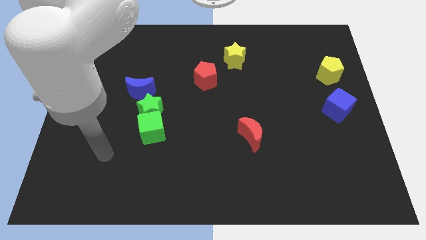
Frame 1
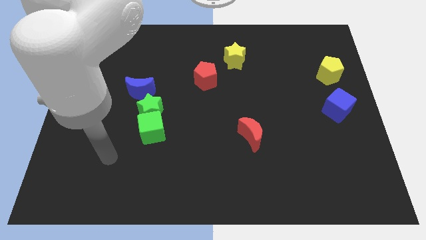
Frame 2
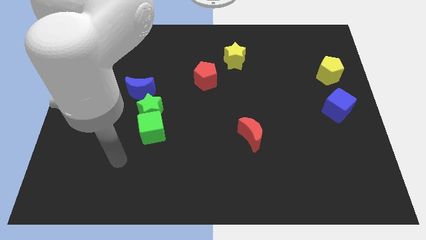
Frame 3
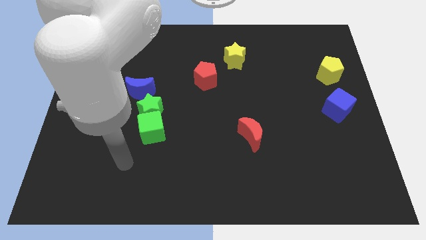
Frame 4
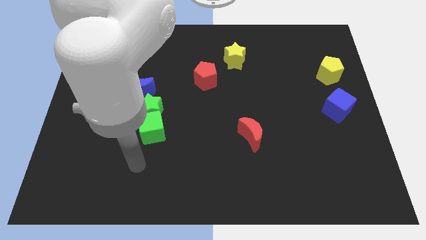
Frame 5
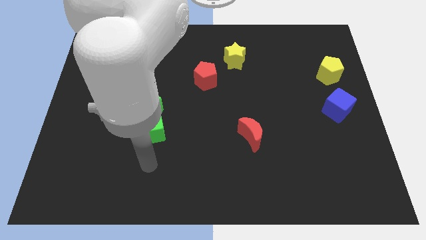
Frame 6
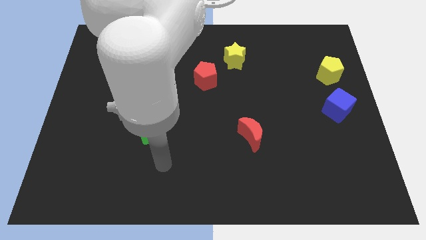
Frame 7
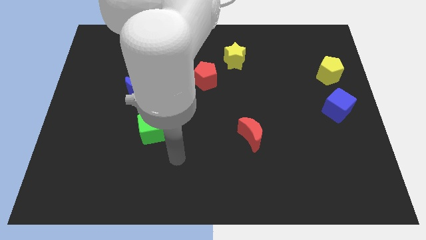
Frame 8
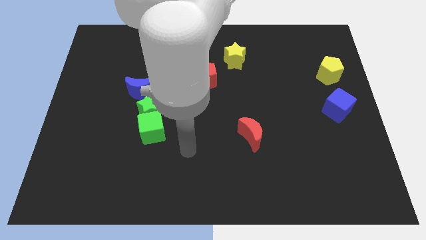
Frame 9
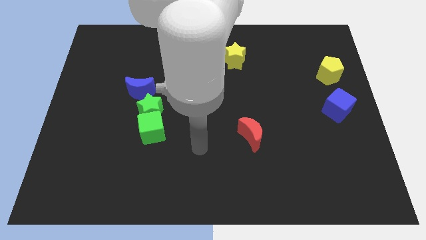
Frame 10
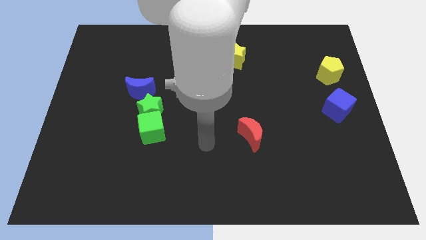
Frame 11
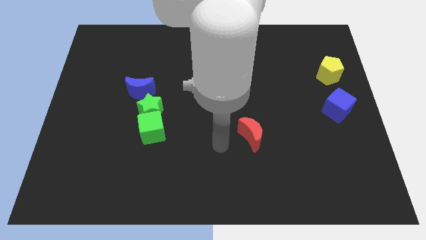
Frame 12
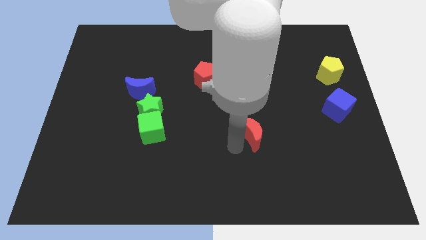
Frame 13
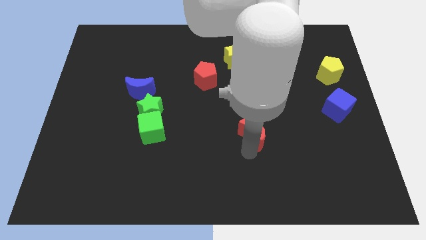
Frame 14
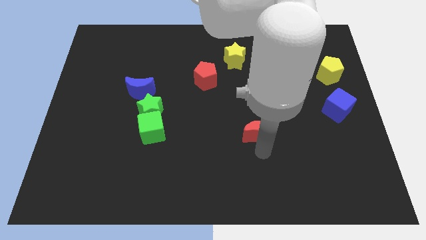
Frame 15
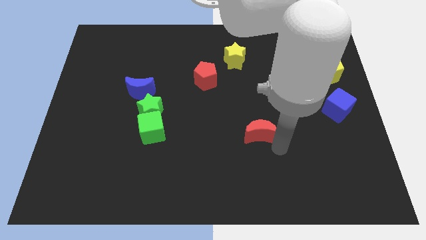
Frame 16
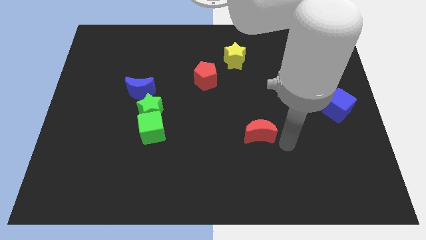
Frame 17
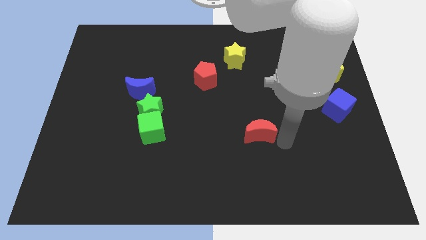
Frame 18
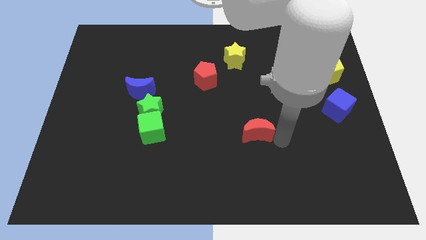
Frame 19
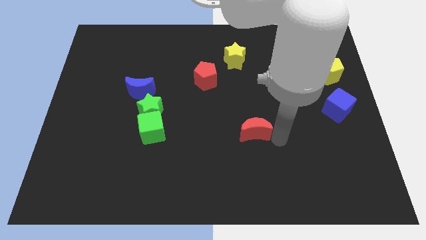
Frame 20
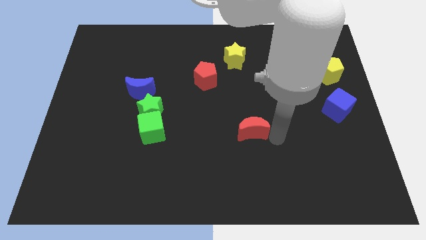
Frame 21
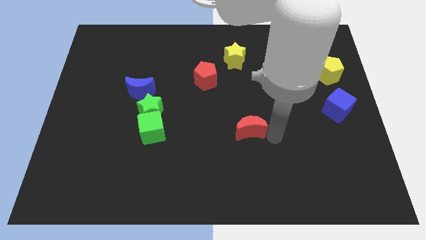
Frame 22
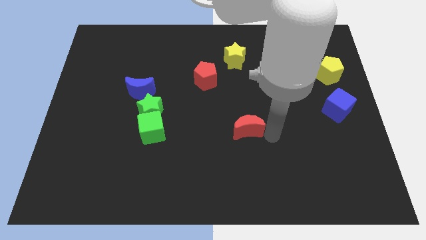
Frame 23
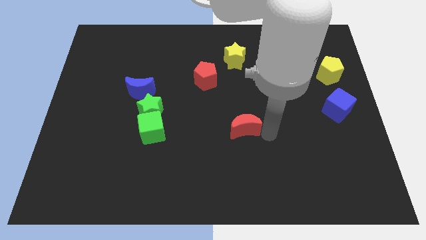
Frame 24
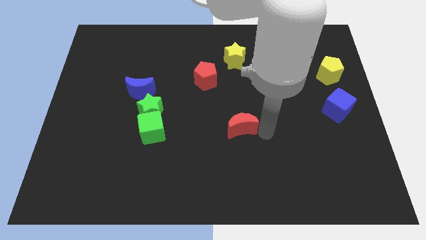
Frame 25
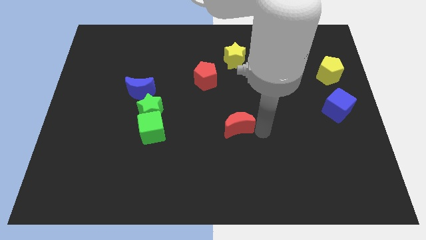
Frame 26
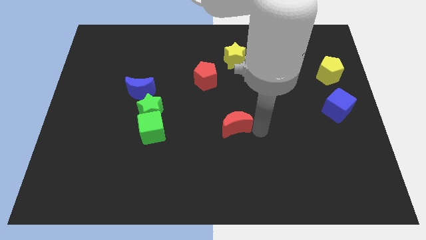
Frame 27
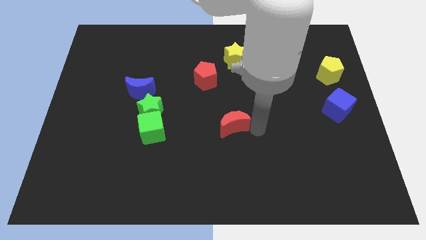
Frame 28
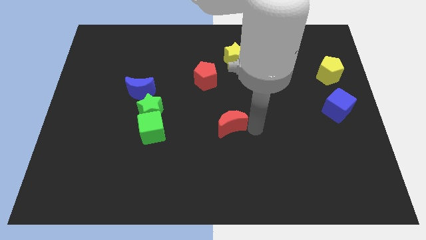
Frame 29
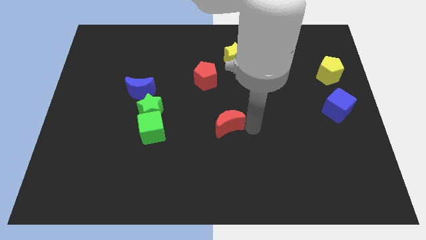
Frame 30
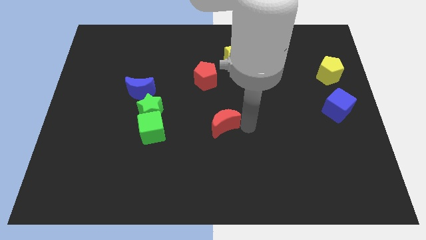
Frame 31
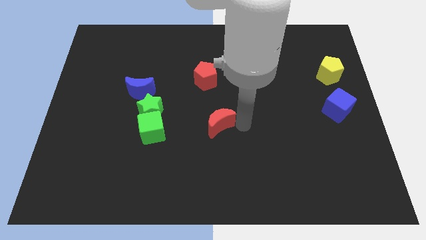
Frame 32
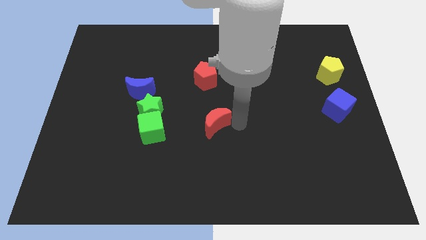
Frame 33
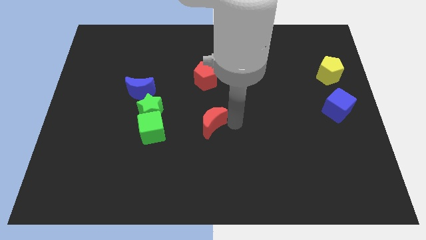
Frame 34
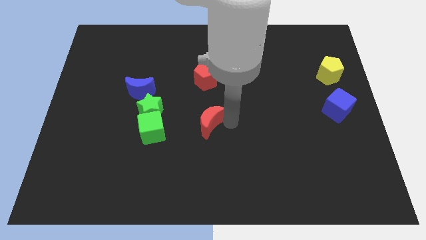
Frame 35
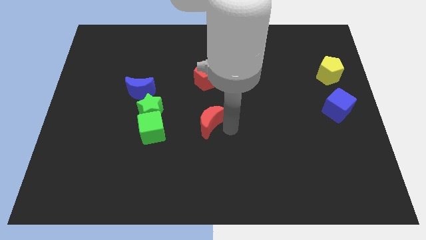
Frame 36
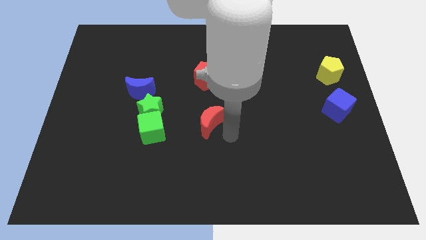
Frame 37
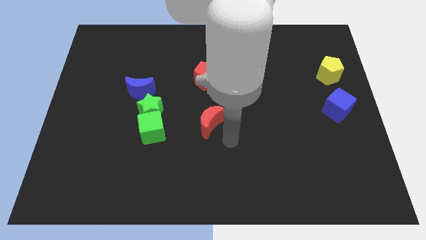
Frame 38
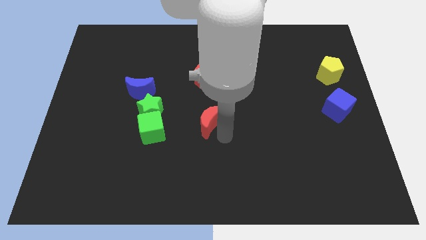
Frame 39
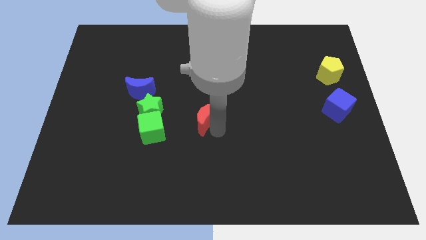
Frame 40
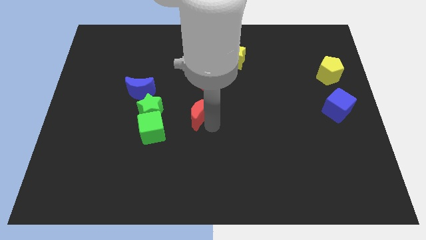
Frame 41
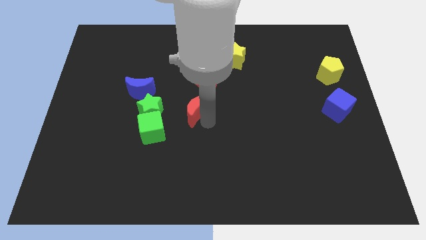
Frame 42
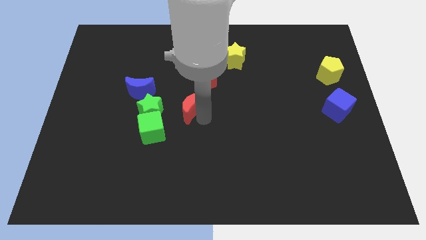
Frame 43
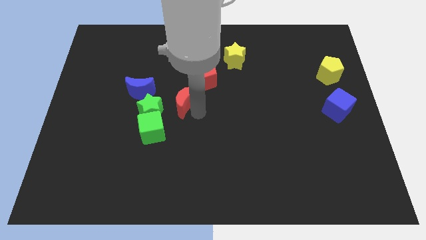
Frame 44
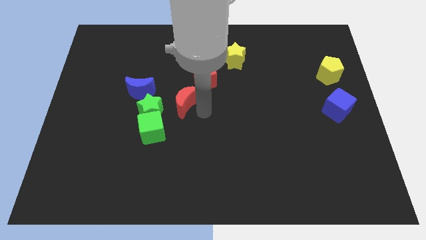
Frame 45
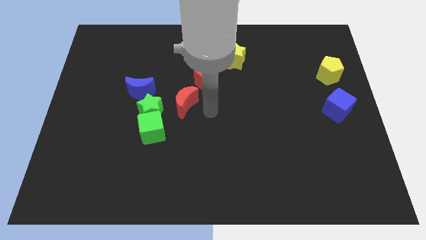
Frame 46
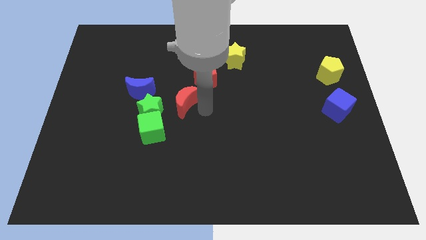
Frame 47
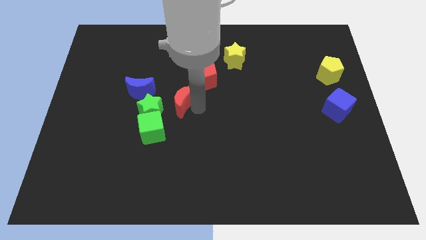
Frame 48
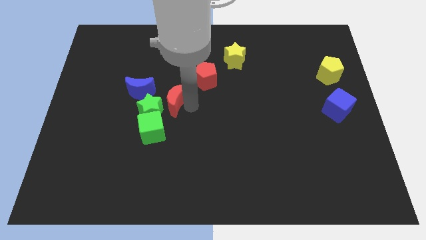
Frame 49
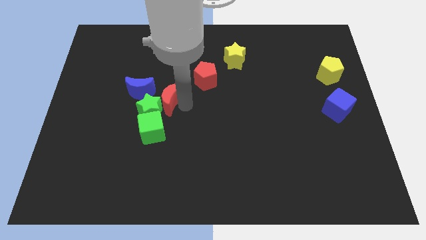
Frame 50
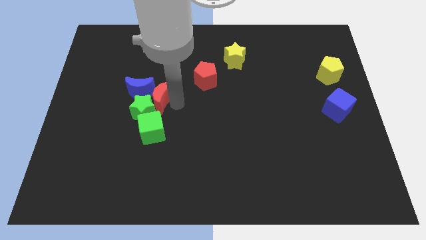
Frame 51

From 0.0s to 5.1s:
move the red moon close to the blue moon
